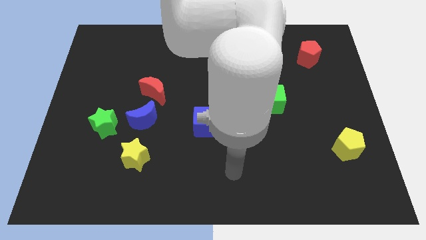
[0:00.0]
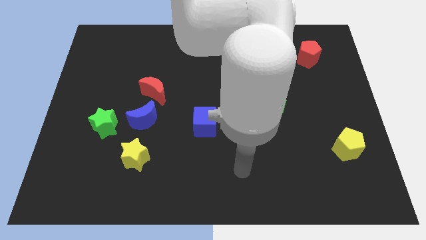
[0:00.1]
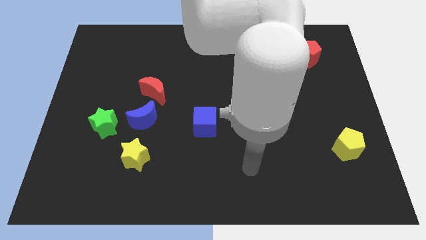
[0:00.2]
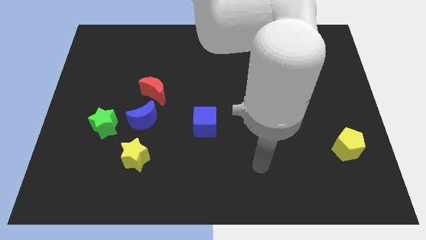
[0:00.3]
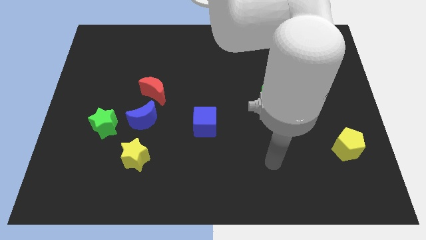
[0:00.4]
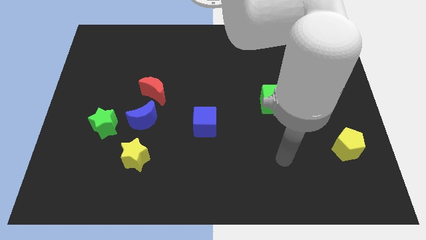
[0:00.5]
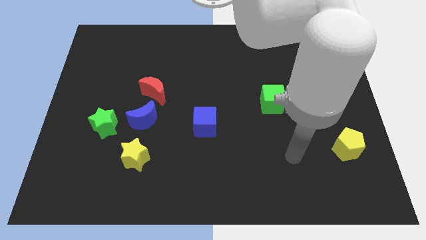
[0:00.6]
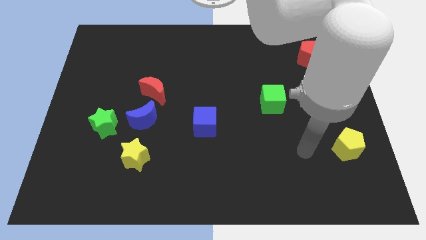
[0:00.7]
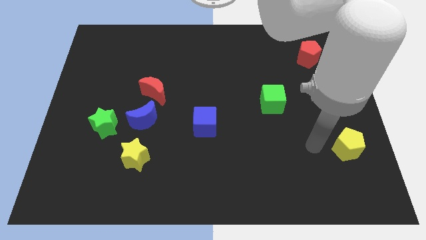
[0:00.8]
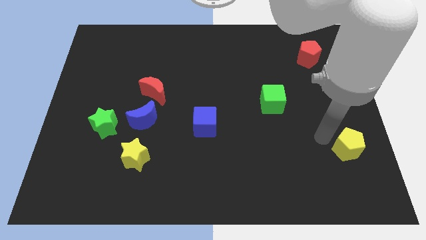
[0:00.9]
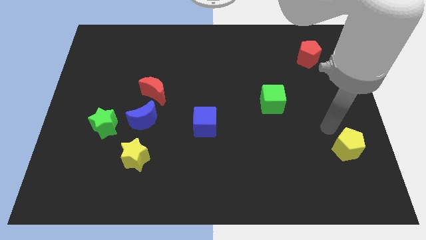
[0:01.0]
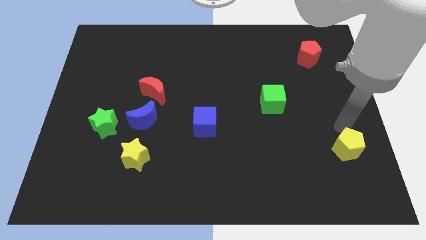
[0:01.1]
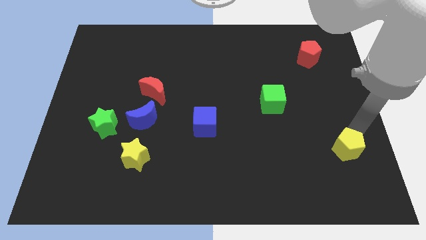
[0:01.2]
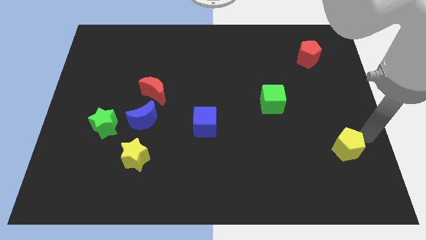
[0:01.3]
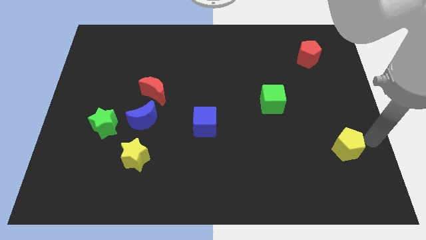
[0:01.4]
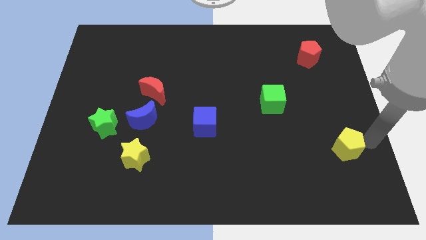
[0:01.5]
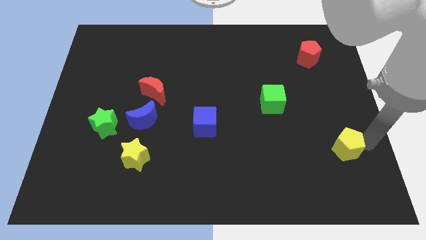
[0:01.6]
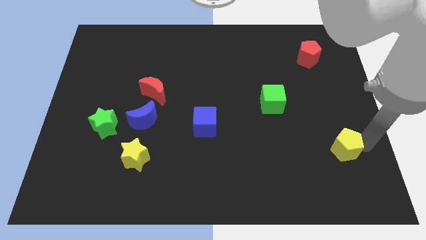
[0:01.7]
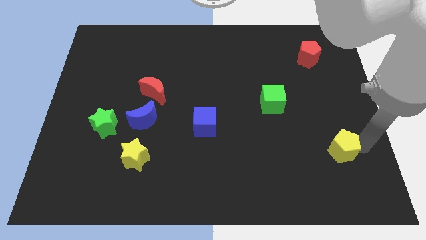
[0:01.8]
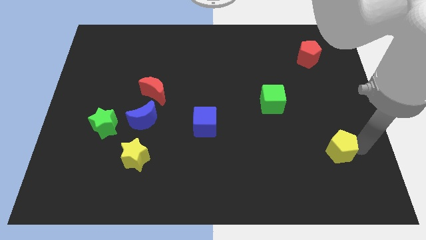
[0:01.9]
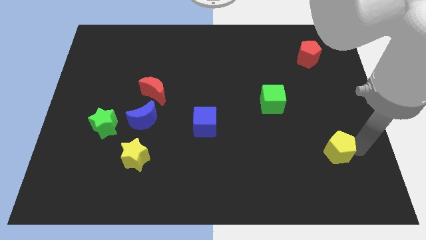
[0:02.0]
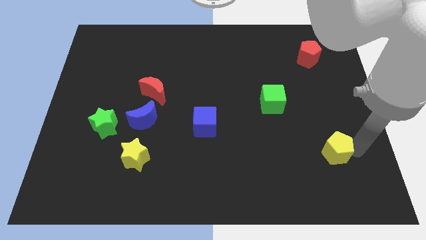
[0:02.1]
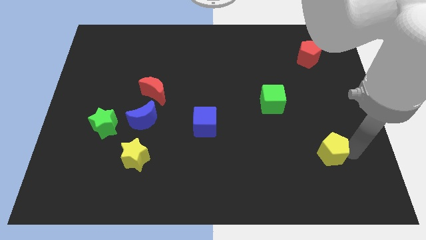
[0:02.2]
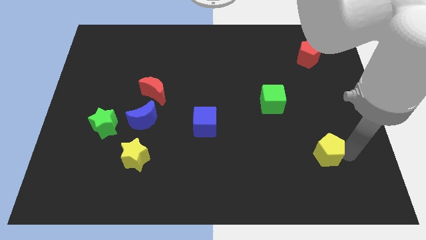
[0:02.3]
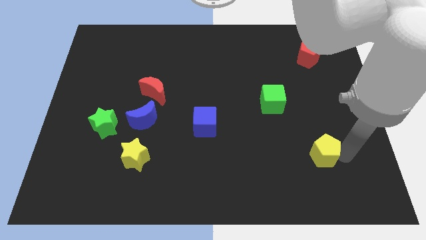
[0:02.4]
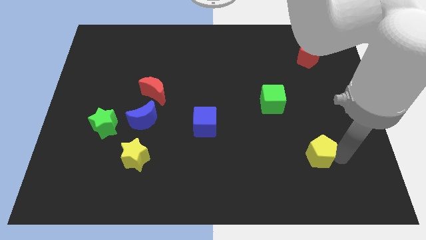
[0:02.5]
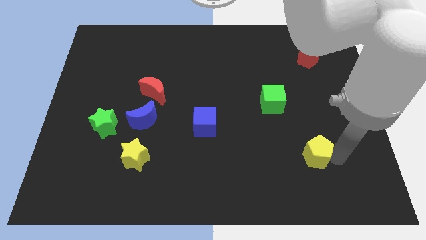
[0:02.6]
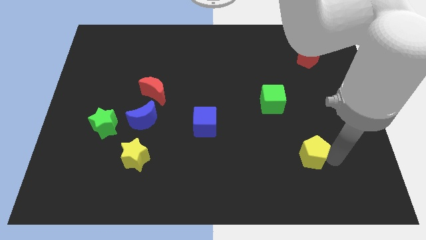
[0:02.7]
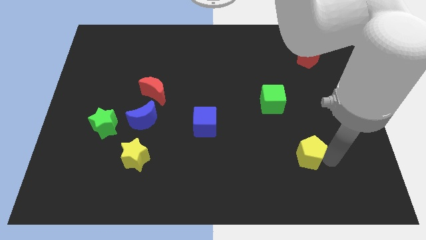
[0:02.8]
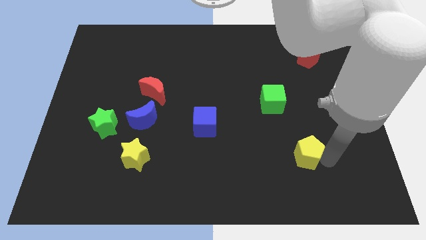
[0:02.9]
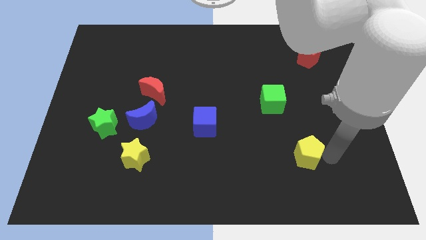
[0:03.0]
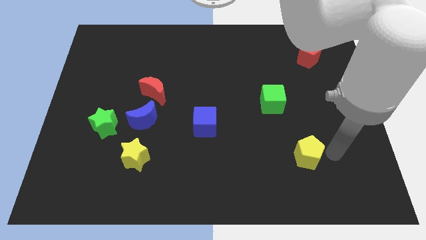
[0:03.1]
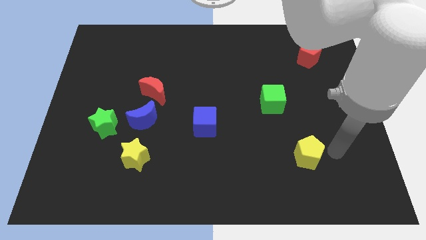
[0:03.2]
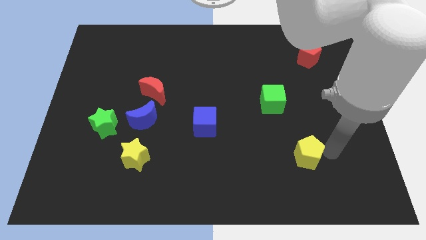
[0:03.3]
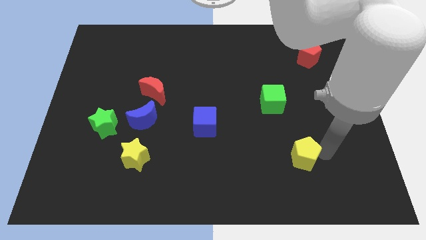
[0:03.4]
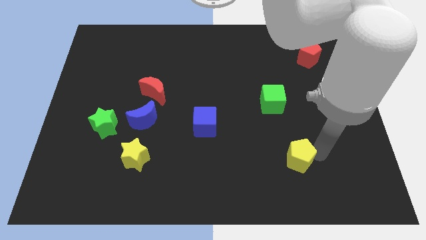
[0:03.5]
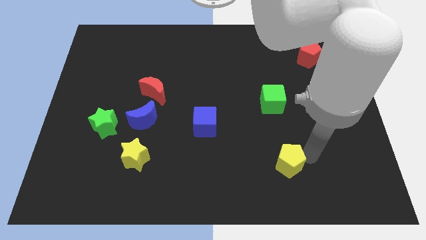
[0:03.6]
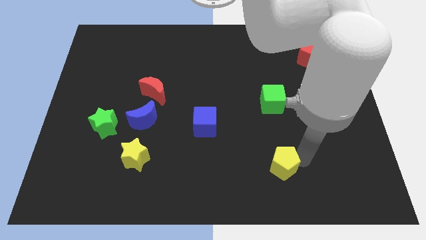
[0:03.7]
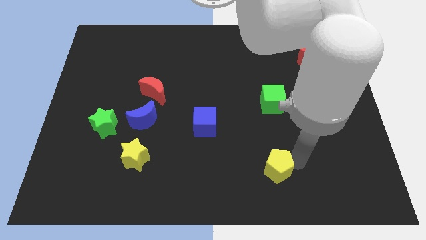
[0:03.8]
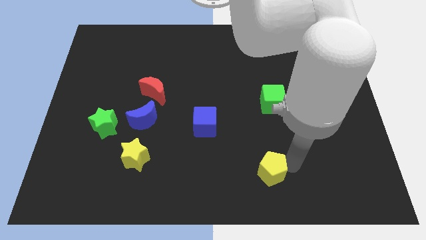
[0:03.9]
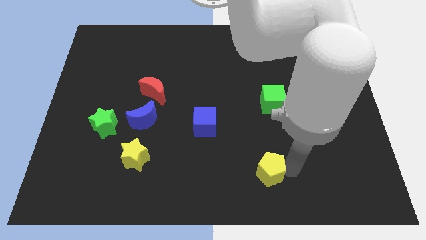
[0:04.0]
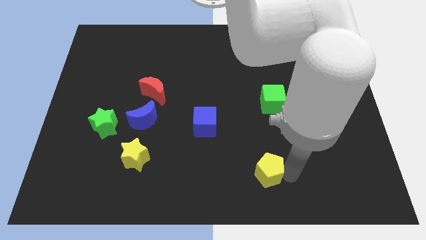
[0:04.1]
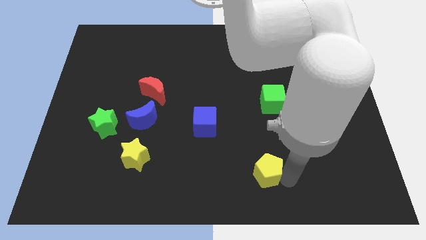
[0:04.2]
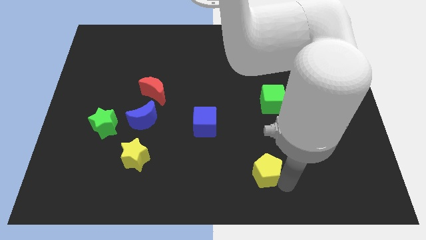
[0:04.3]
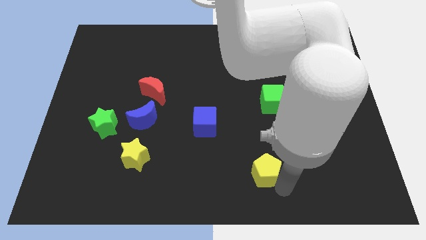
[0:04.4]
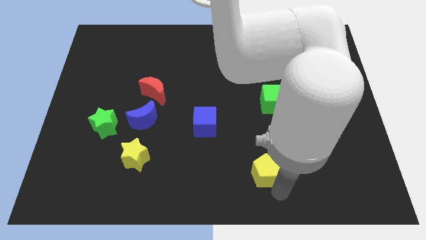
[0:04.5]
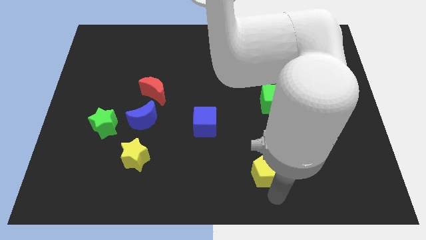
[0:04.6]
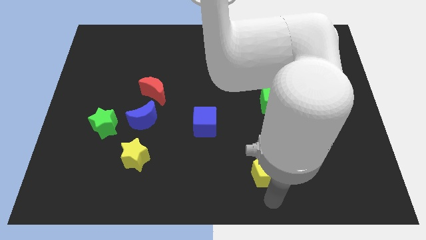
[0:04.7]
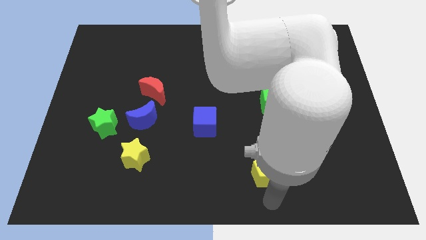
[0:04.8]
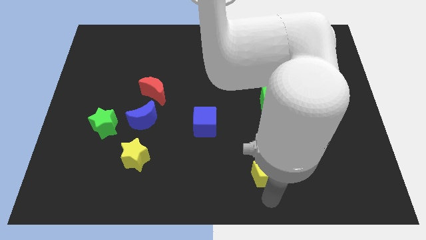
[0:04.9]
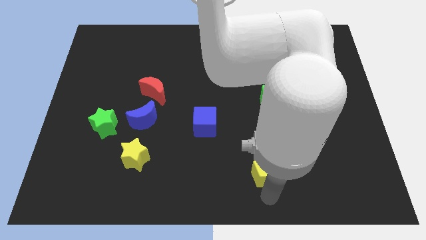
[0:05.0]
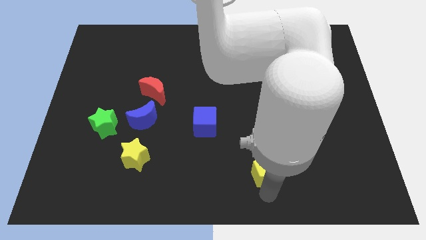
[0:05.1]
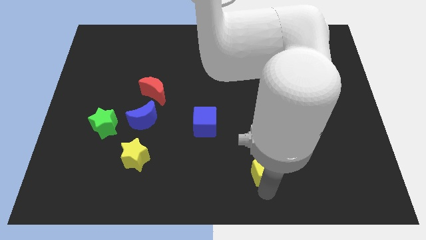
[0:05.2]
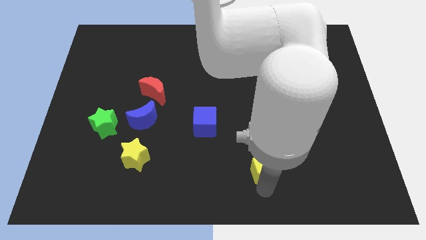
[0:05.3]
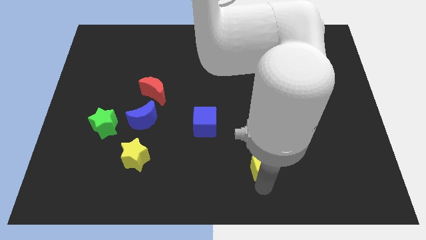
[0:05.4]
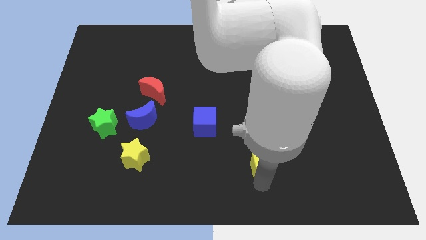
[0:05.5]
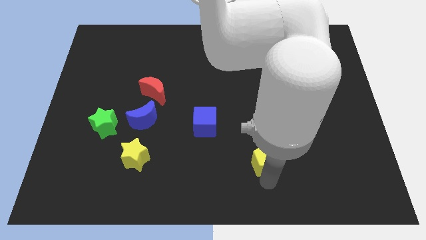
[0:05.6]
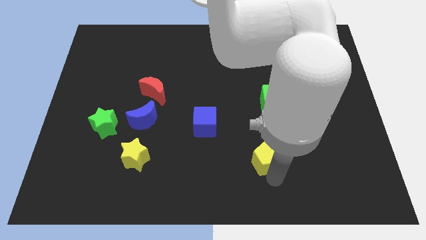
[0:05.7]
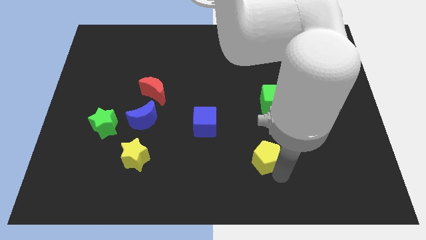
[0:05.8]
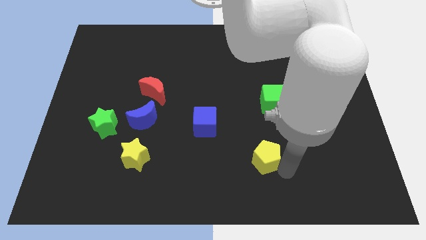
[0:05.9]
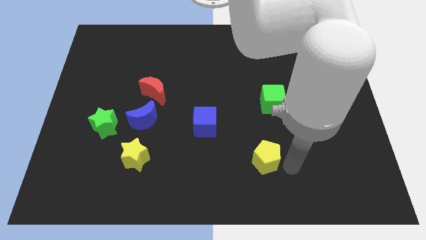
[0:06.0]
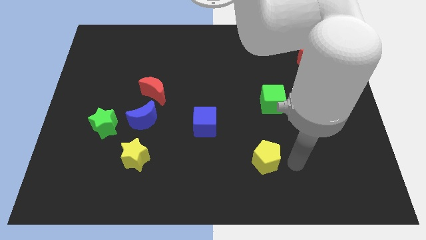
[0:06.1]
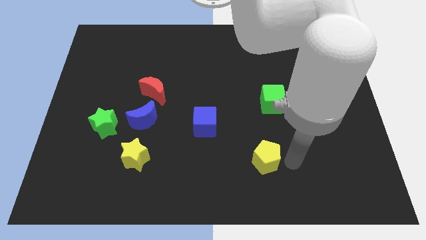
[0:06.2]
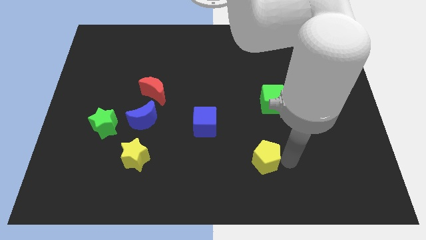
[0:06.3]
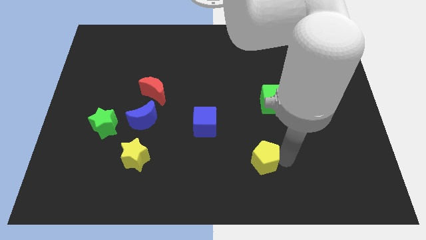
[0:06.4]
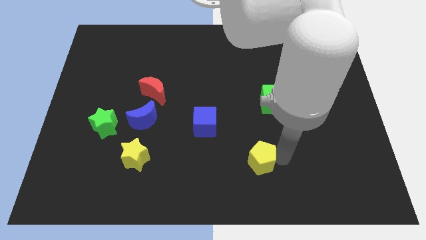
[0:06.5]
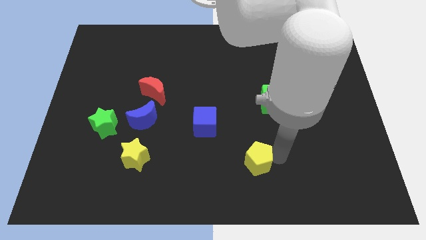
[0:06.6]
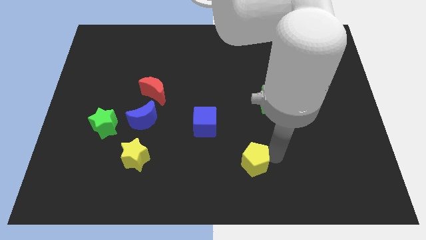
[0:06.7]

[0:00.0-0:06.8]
move the yellow pentagon left

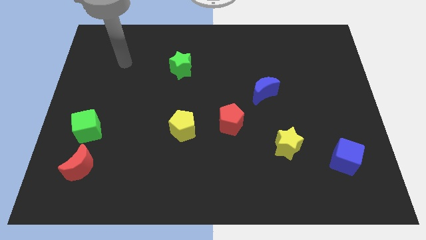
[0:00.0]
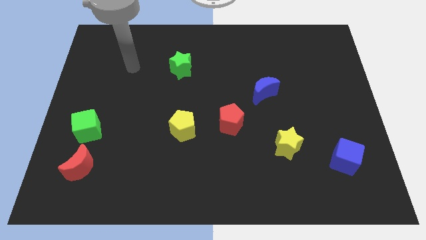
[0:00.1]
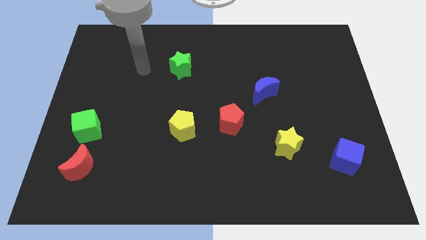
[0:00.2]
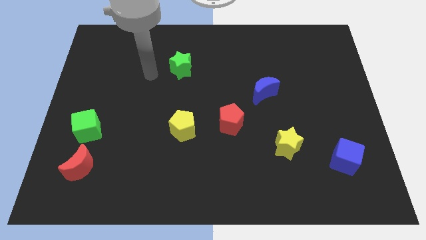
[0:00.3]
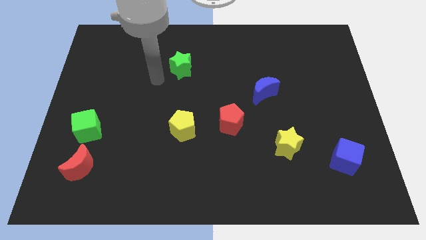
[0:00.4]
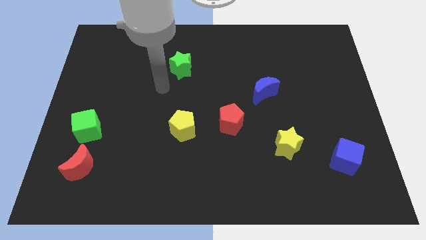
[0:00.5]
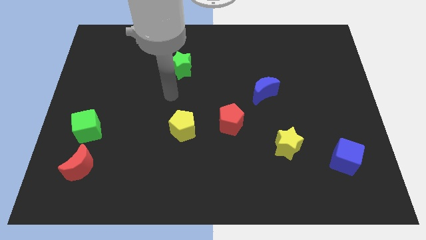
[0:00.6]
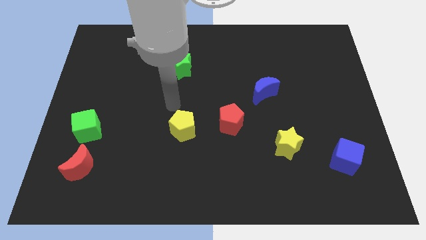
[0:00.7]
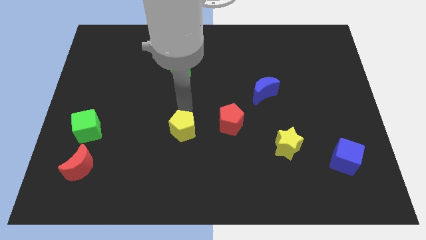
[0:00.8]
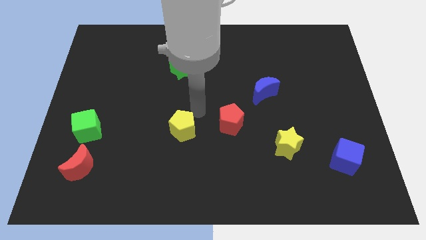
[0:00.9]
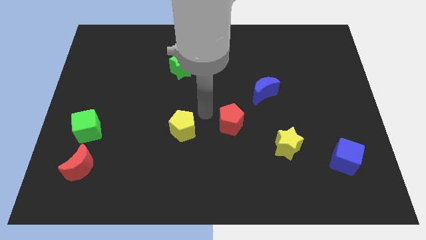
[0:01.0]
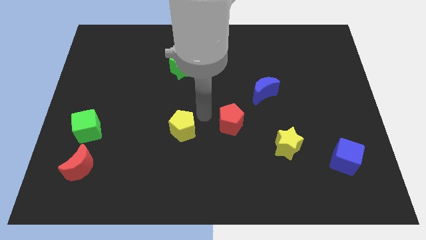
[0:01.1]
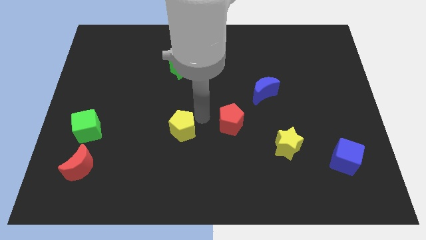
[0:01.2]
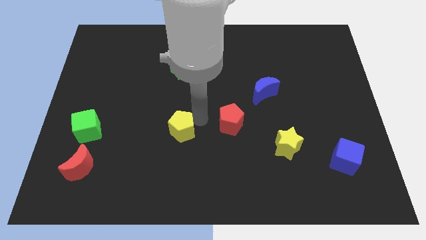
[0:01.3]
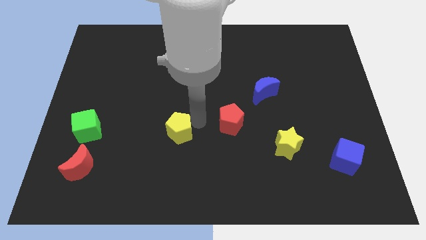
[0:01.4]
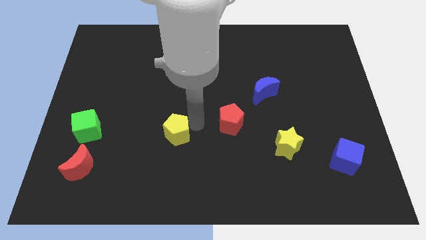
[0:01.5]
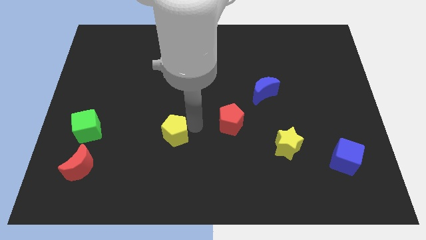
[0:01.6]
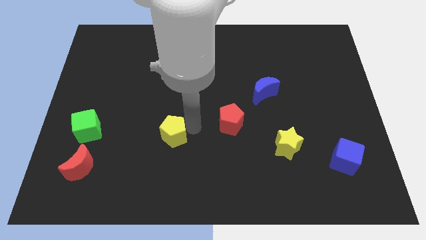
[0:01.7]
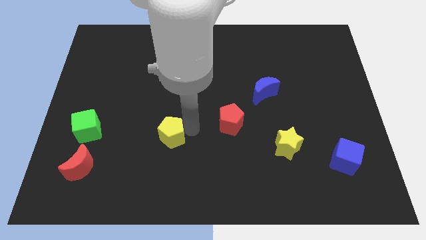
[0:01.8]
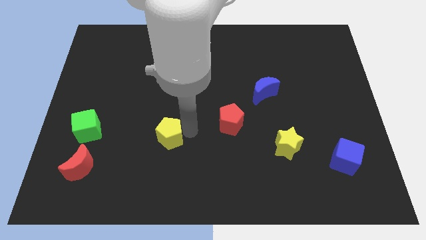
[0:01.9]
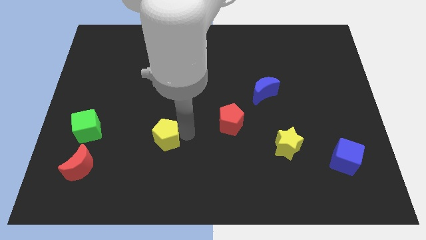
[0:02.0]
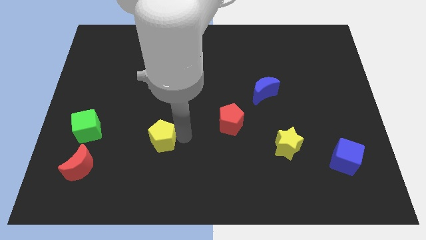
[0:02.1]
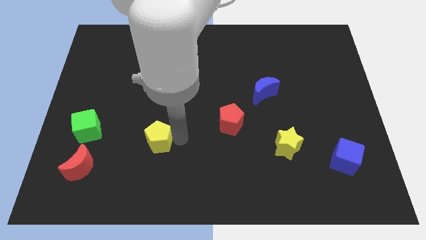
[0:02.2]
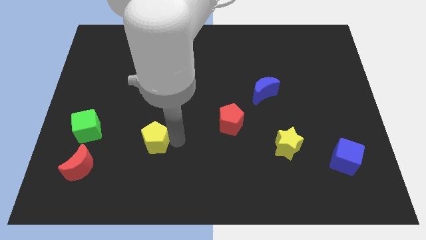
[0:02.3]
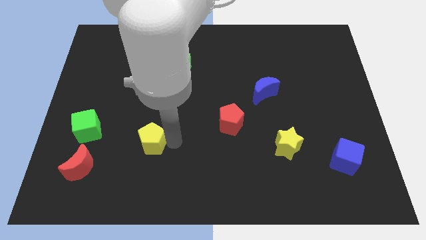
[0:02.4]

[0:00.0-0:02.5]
push the yellow pentagon a bit downwards and then left
